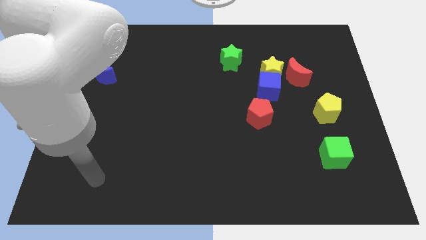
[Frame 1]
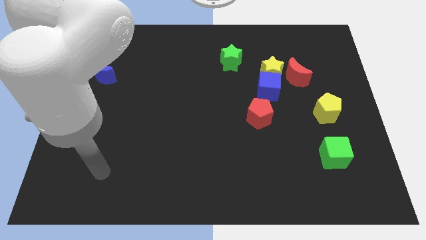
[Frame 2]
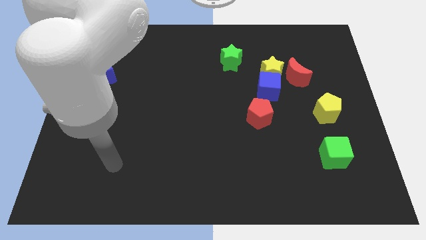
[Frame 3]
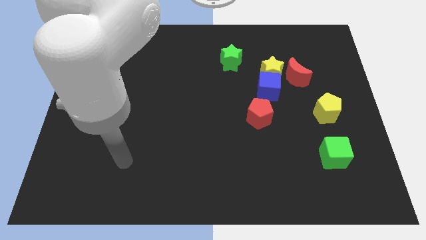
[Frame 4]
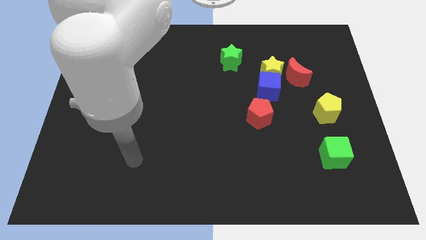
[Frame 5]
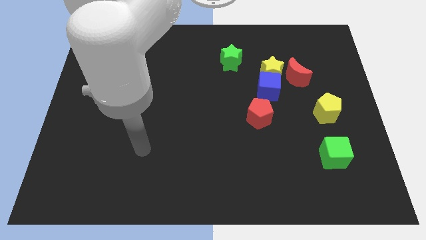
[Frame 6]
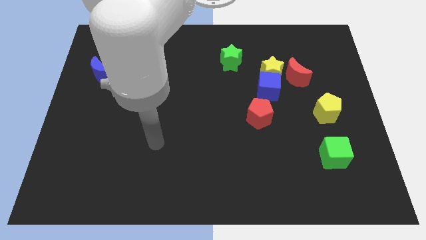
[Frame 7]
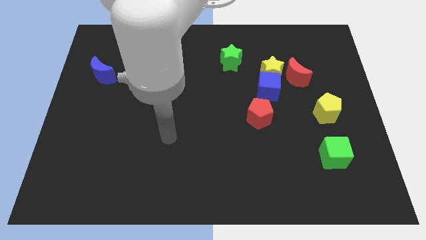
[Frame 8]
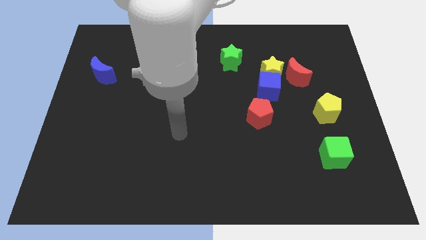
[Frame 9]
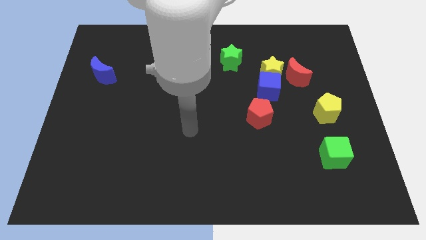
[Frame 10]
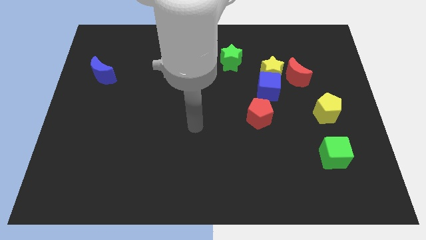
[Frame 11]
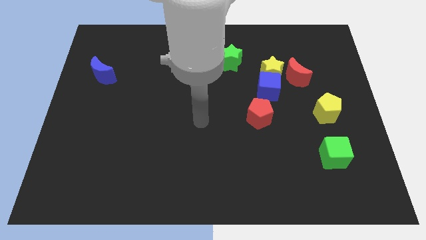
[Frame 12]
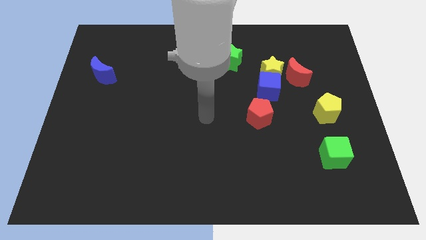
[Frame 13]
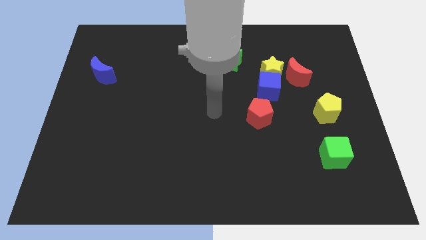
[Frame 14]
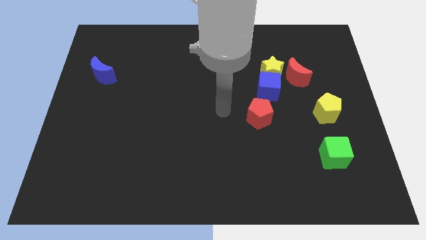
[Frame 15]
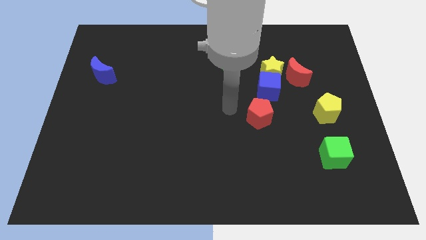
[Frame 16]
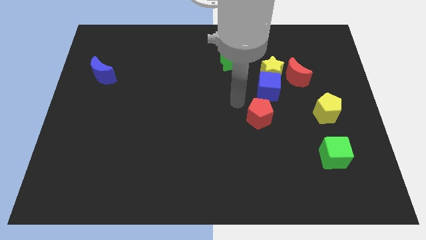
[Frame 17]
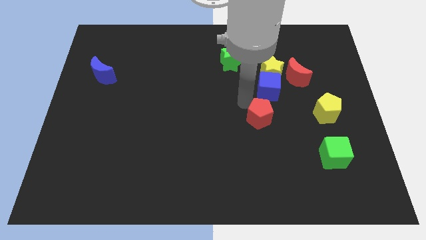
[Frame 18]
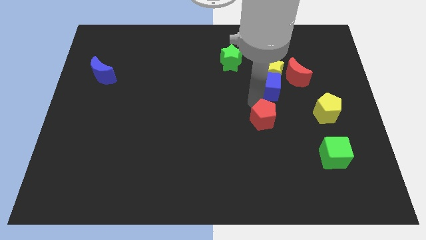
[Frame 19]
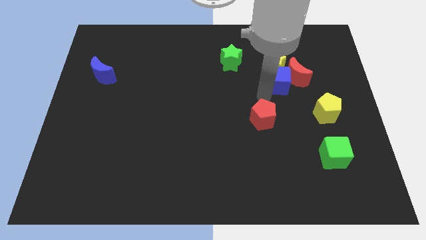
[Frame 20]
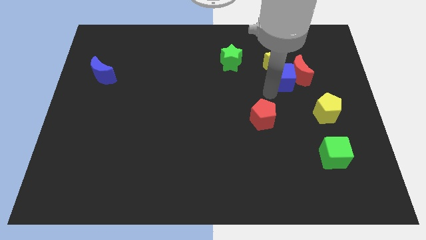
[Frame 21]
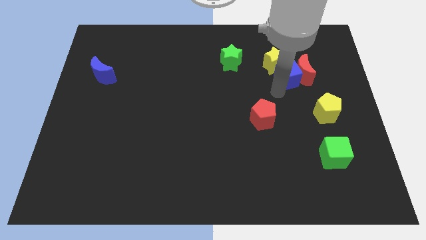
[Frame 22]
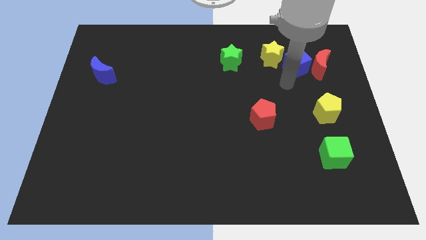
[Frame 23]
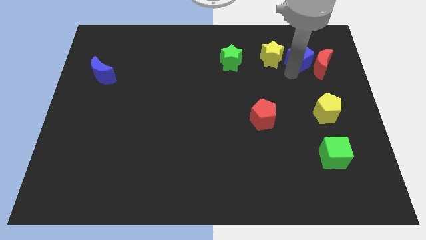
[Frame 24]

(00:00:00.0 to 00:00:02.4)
separate the yellow star from the blue cube and red moon

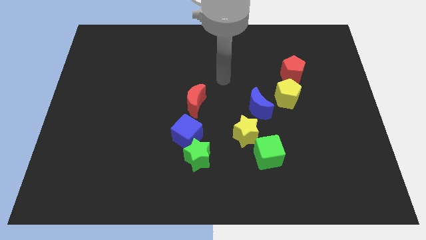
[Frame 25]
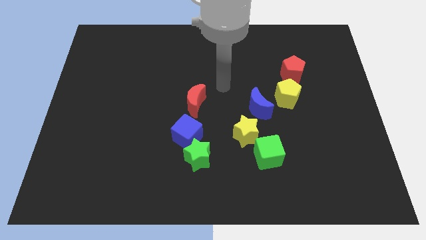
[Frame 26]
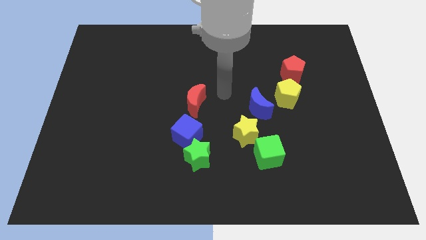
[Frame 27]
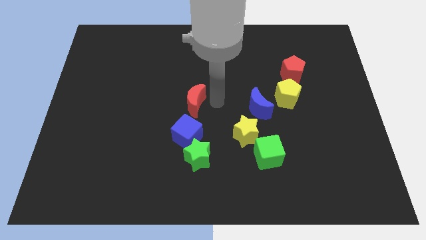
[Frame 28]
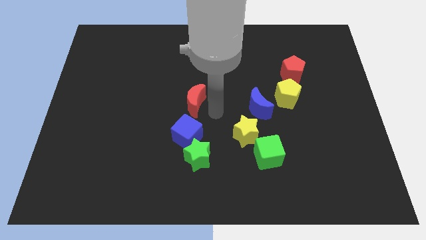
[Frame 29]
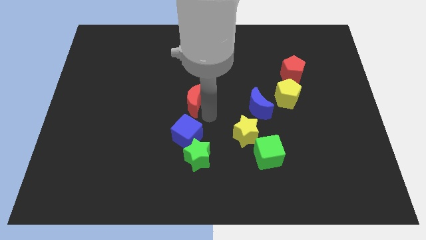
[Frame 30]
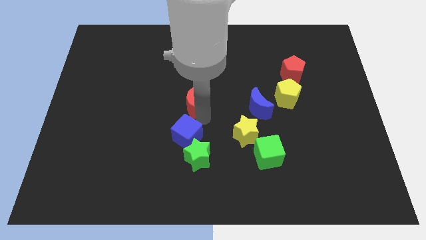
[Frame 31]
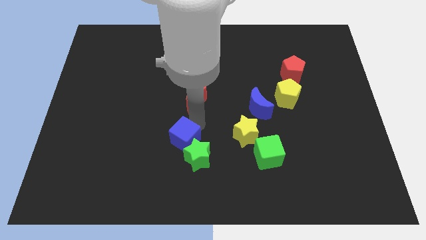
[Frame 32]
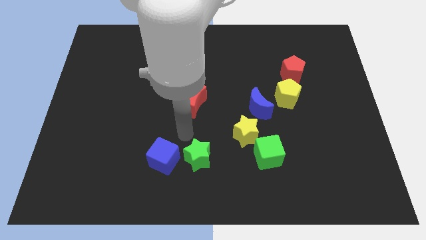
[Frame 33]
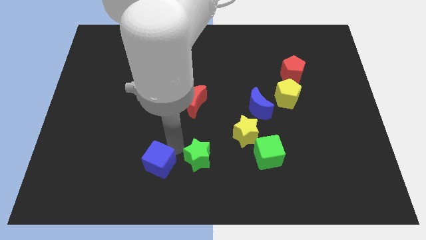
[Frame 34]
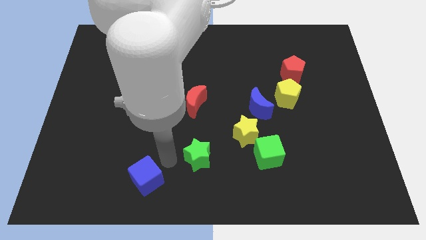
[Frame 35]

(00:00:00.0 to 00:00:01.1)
pull the green star apart from the blue cube

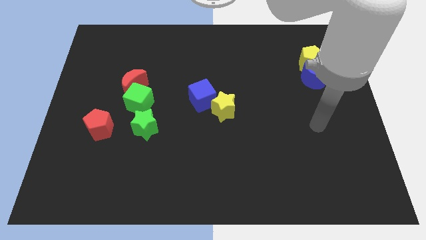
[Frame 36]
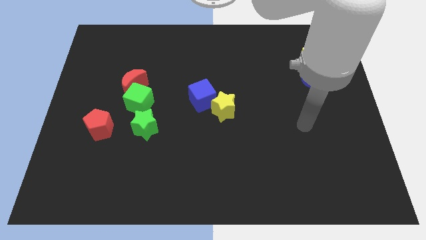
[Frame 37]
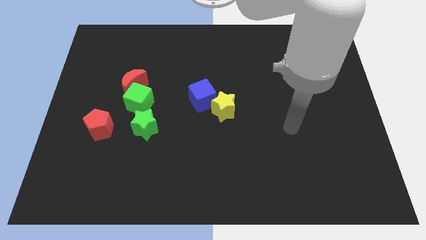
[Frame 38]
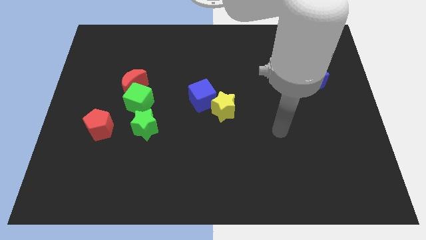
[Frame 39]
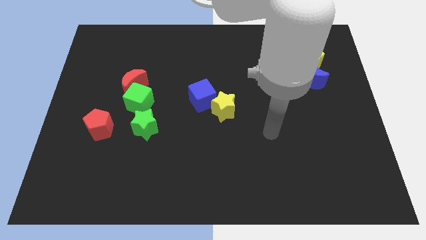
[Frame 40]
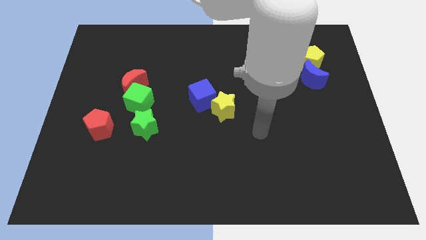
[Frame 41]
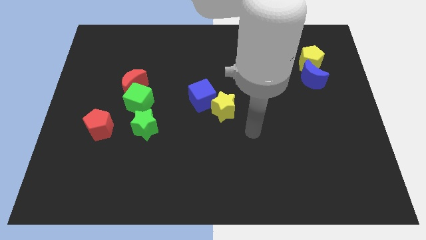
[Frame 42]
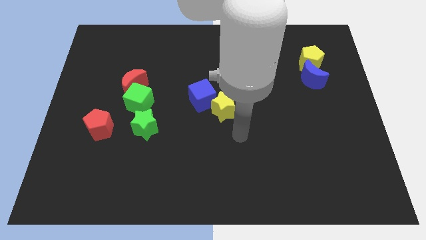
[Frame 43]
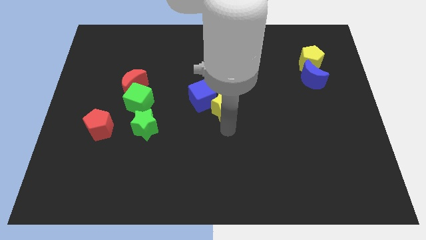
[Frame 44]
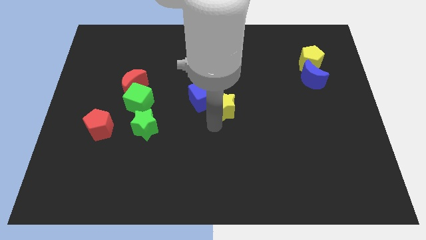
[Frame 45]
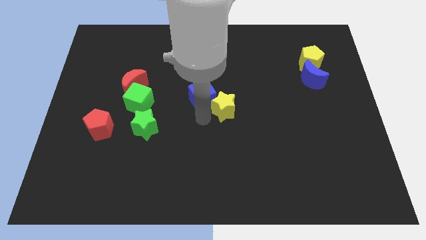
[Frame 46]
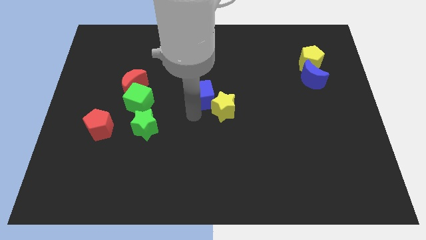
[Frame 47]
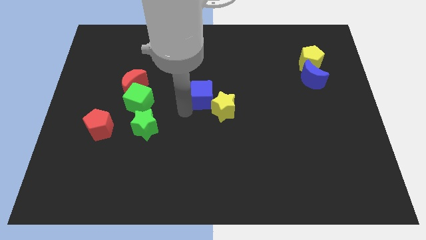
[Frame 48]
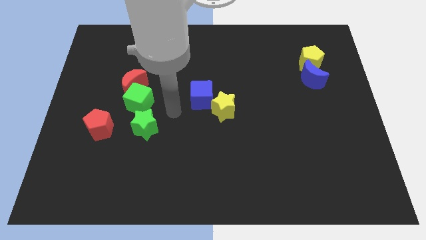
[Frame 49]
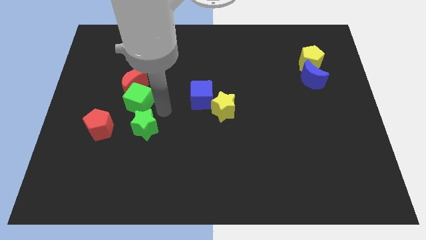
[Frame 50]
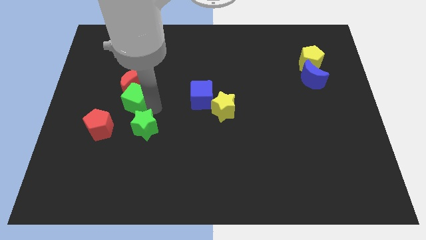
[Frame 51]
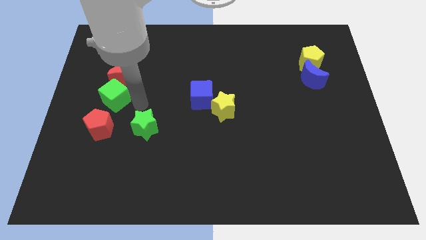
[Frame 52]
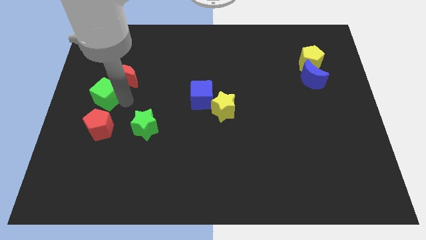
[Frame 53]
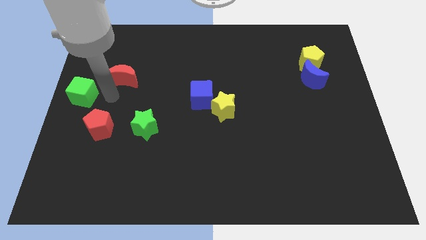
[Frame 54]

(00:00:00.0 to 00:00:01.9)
move the red moon away from the green cube

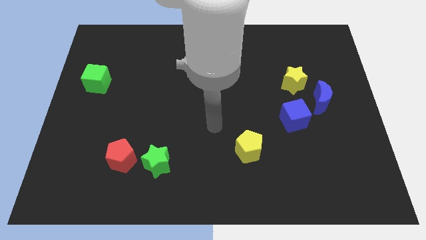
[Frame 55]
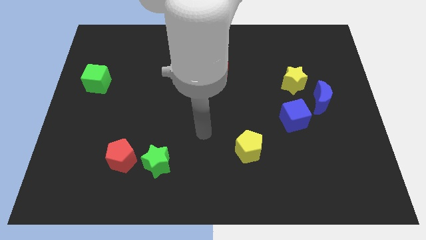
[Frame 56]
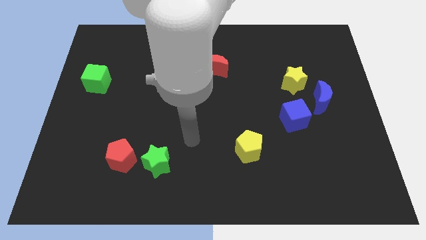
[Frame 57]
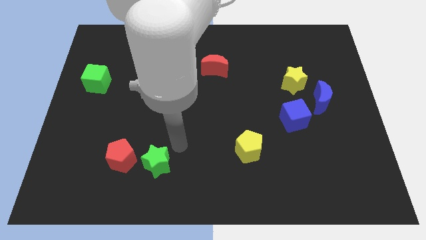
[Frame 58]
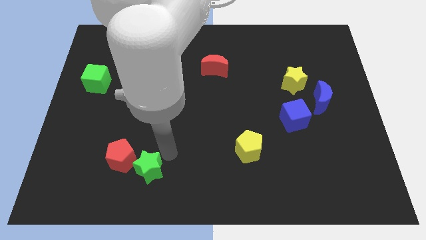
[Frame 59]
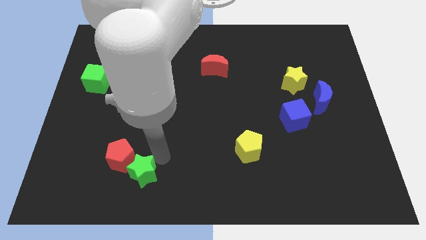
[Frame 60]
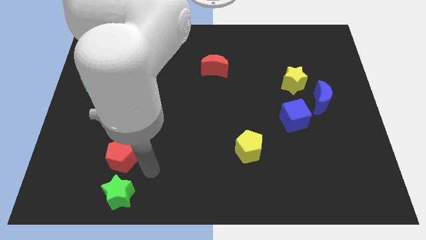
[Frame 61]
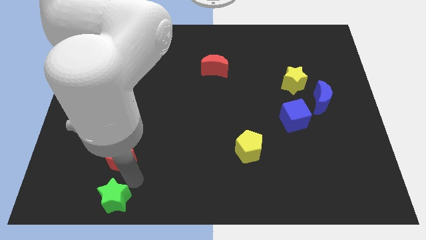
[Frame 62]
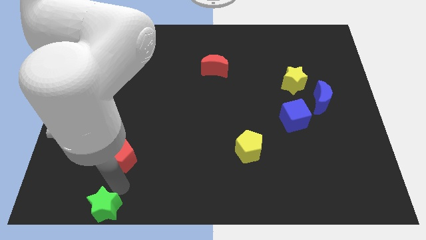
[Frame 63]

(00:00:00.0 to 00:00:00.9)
pull the red pentagon apart from the green star

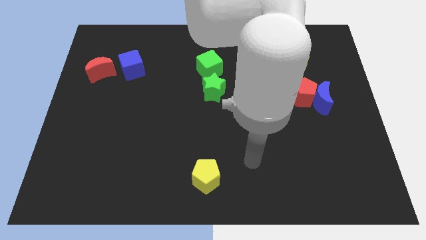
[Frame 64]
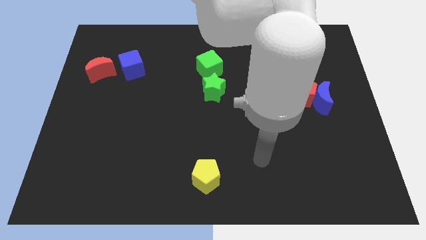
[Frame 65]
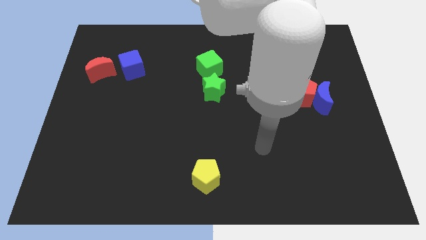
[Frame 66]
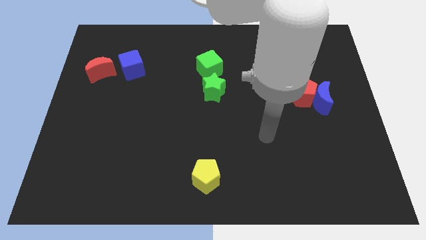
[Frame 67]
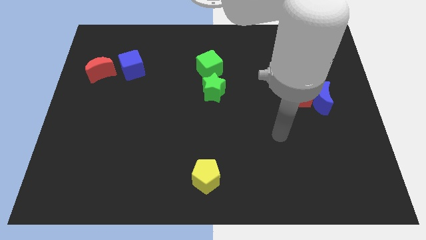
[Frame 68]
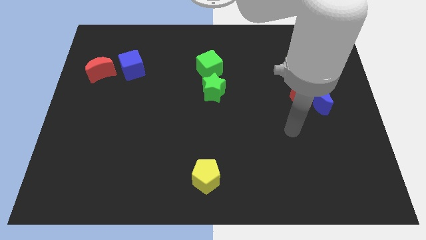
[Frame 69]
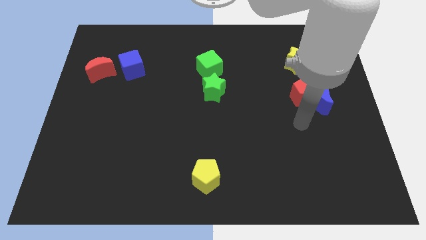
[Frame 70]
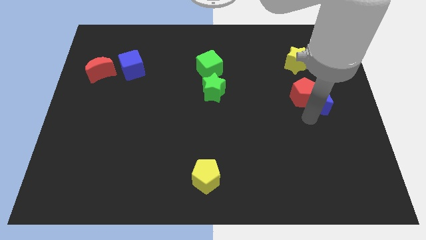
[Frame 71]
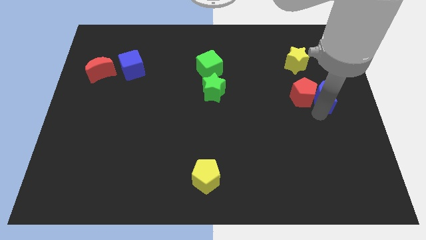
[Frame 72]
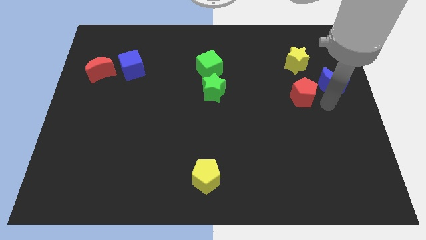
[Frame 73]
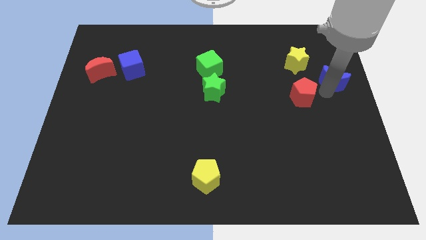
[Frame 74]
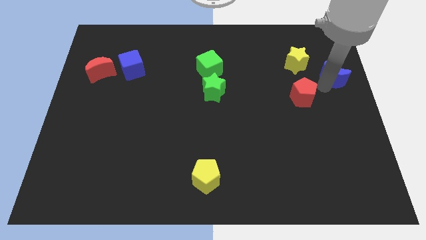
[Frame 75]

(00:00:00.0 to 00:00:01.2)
move the red pentagon away from the blue moon

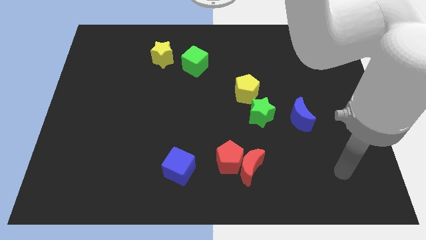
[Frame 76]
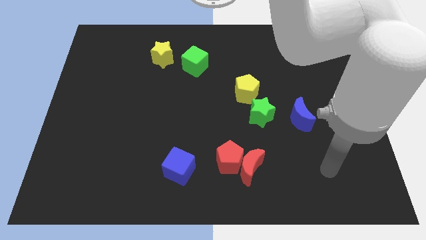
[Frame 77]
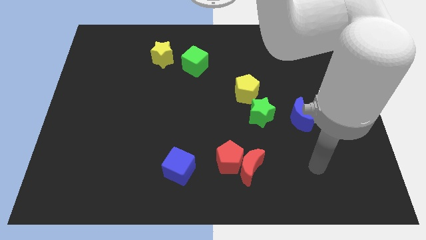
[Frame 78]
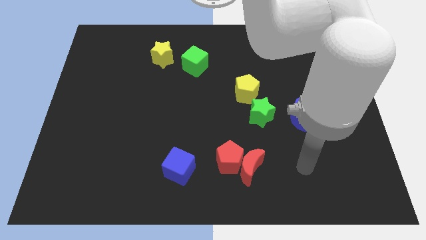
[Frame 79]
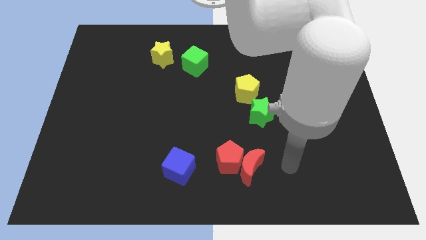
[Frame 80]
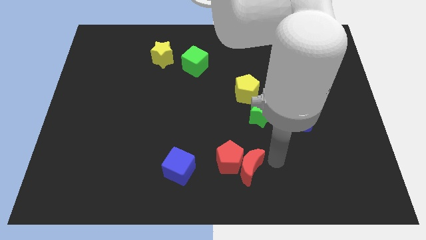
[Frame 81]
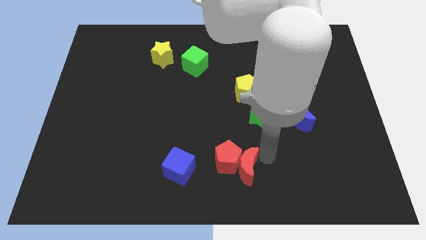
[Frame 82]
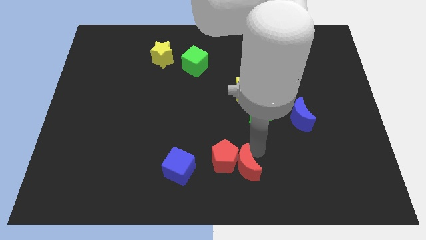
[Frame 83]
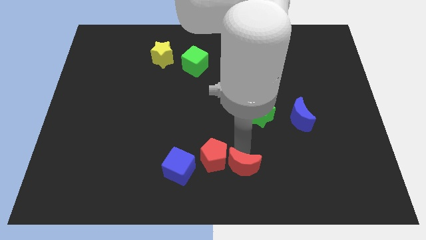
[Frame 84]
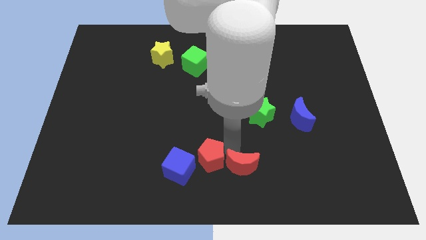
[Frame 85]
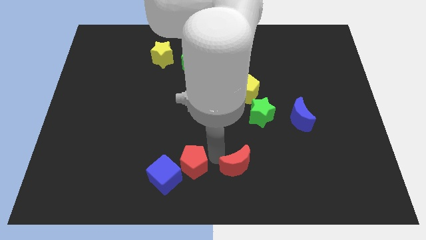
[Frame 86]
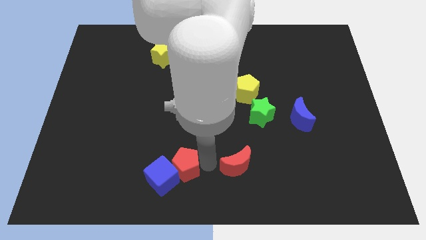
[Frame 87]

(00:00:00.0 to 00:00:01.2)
move the red moon away from the red pentagon

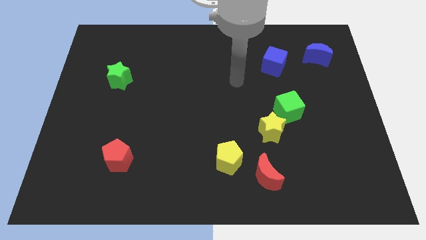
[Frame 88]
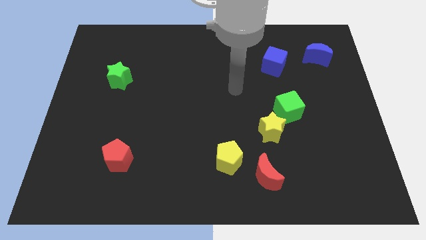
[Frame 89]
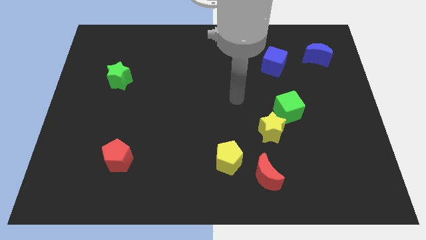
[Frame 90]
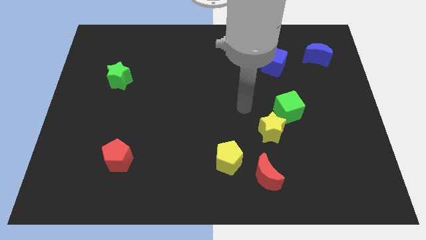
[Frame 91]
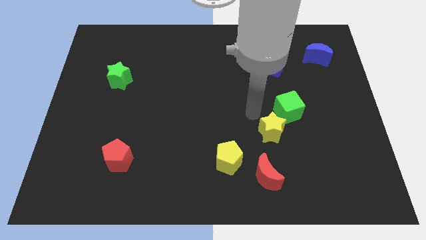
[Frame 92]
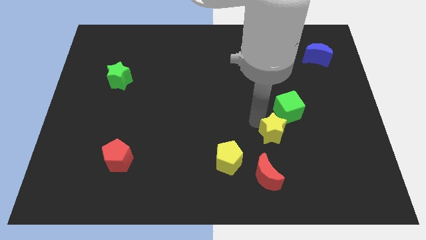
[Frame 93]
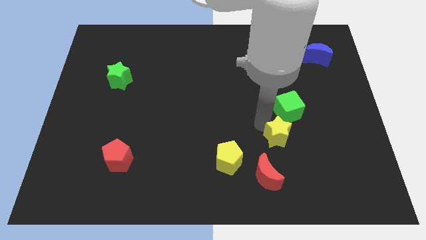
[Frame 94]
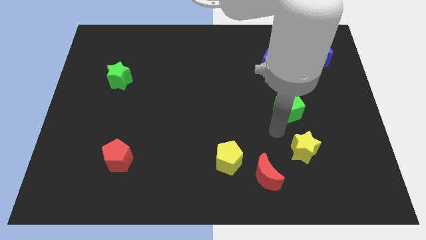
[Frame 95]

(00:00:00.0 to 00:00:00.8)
pull the green cube apart from the yellow star
